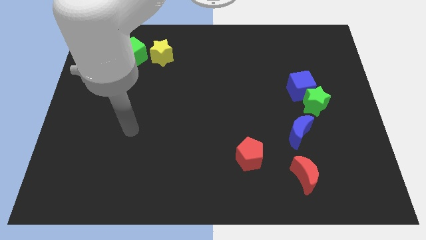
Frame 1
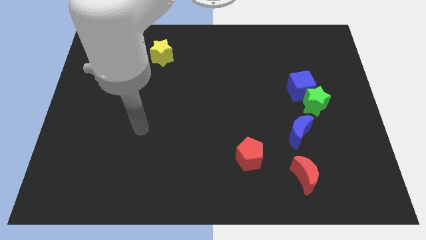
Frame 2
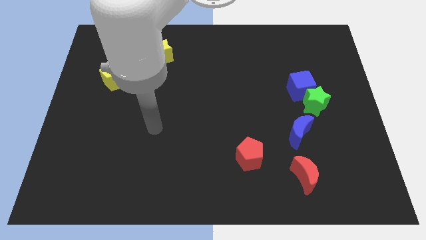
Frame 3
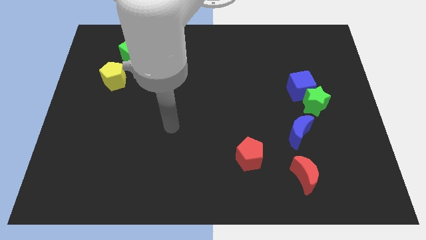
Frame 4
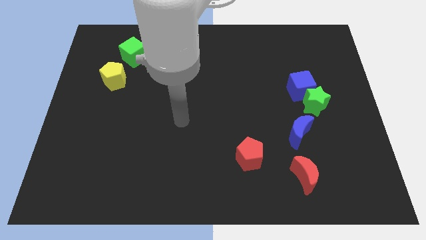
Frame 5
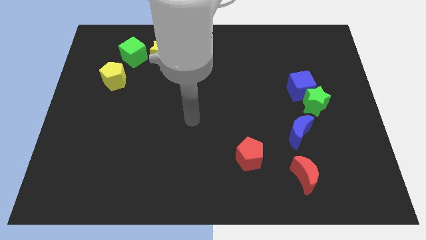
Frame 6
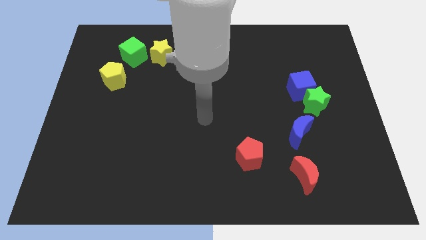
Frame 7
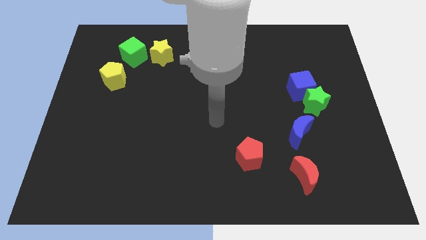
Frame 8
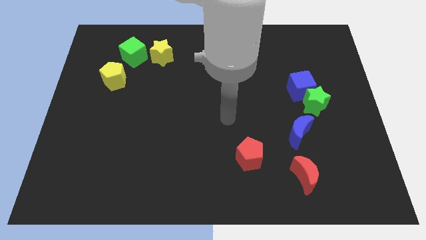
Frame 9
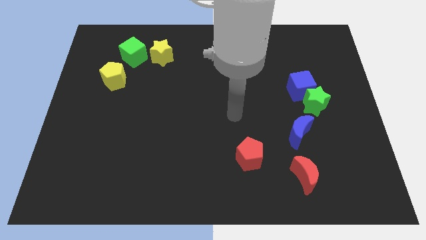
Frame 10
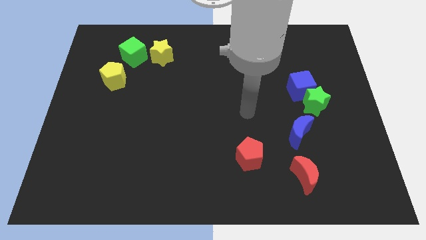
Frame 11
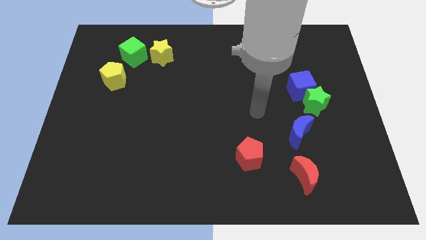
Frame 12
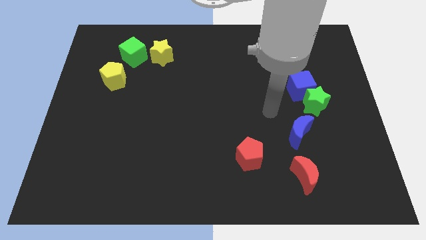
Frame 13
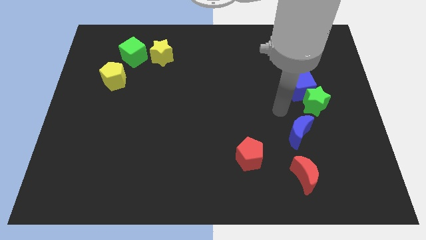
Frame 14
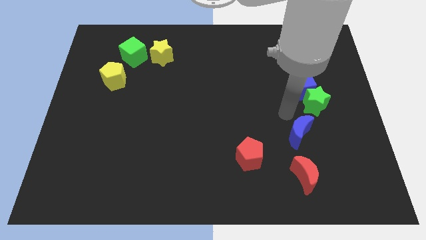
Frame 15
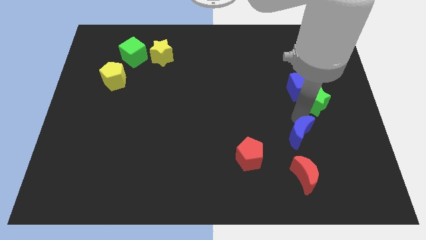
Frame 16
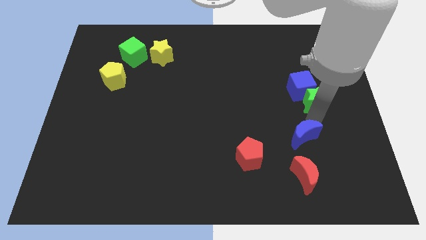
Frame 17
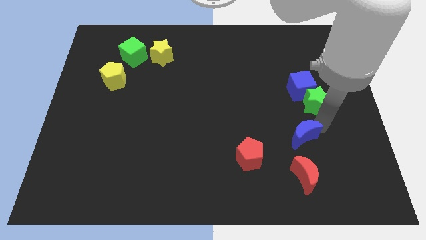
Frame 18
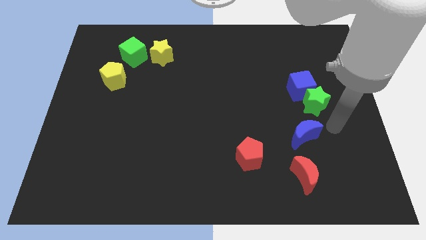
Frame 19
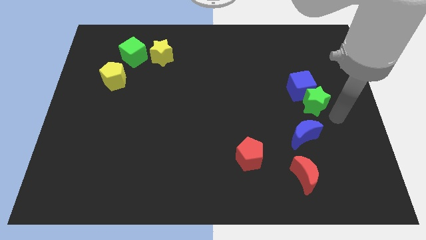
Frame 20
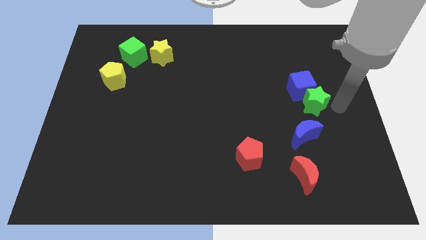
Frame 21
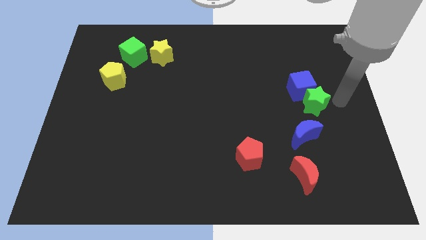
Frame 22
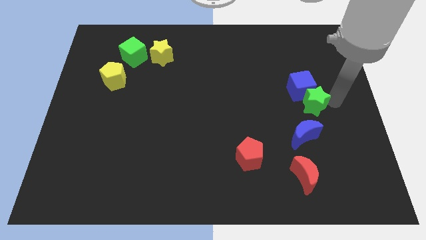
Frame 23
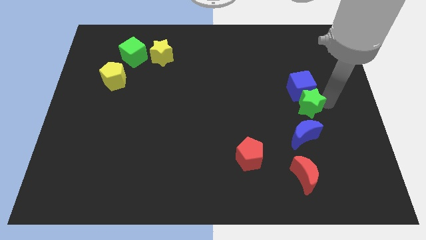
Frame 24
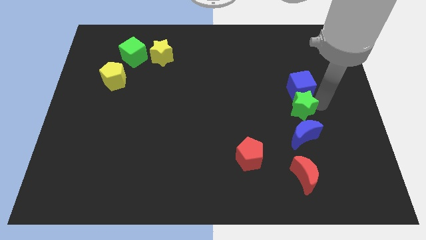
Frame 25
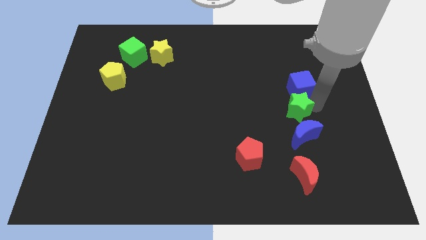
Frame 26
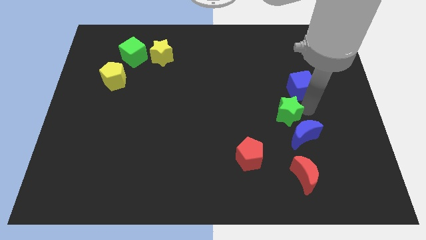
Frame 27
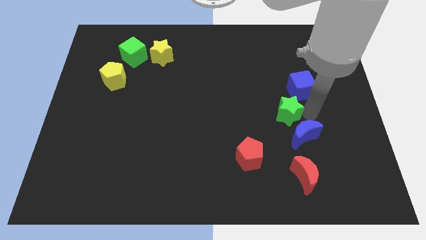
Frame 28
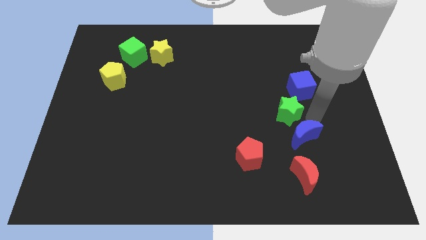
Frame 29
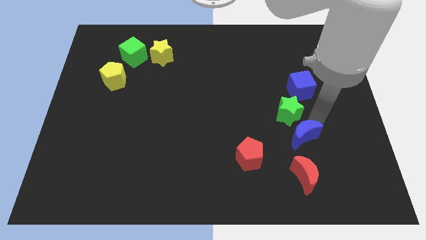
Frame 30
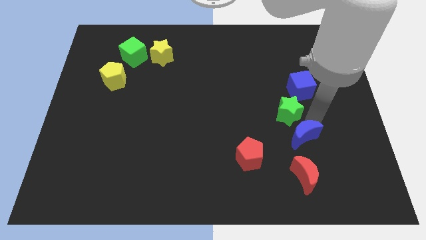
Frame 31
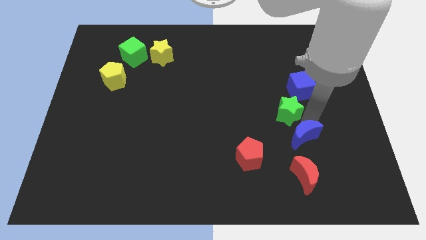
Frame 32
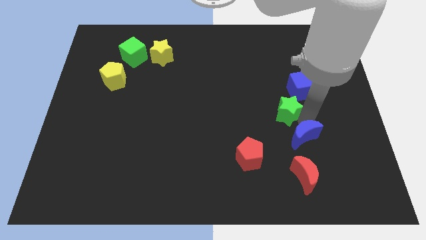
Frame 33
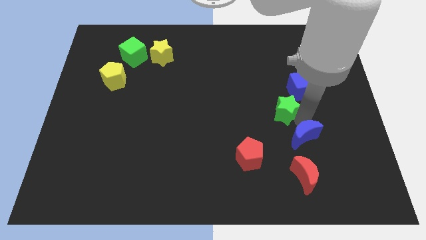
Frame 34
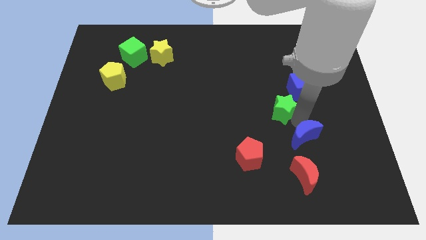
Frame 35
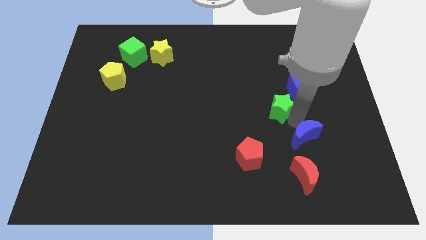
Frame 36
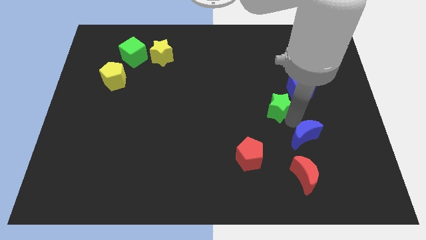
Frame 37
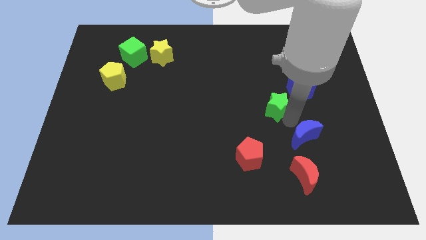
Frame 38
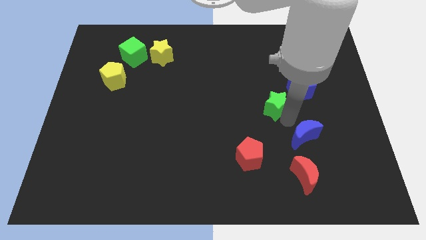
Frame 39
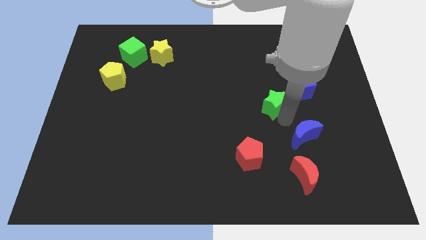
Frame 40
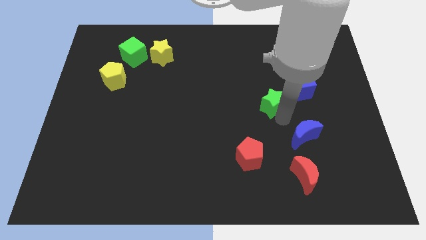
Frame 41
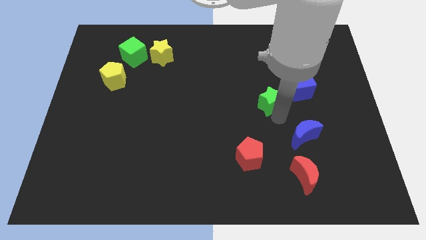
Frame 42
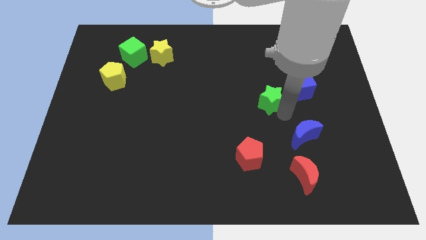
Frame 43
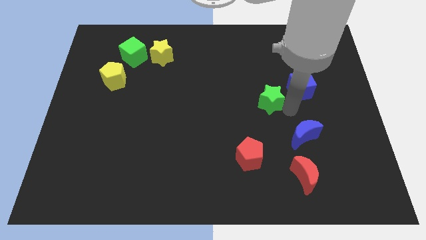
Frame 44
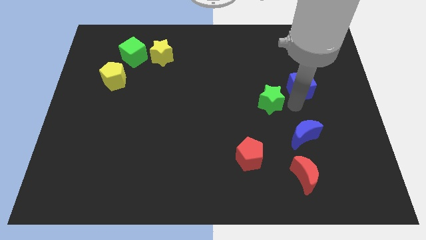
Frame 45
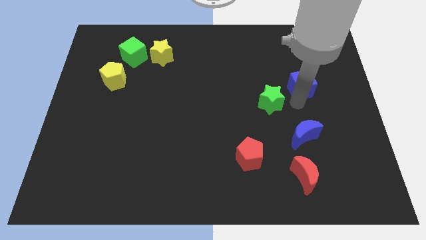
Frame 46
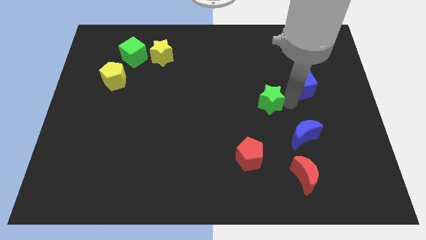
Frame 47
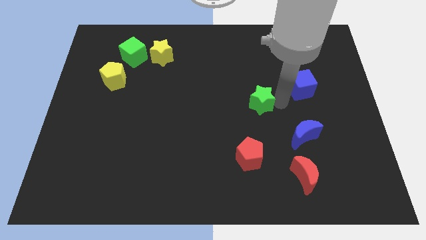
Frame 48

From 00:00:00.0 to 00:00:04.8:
put the green star to the middle of the board

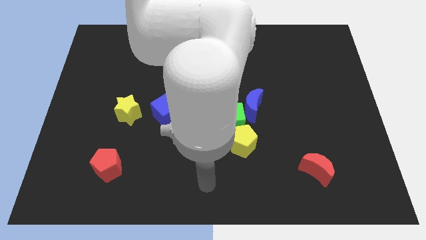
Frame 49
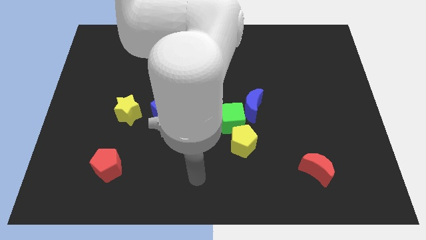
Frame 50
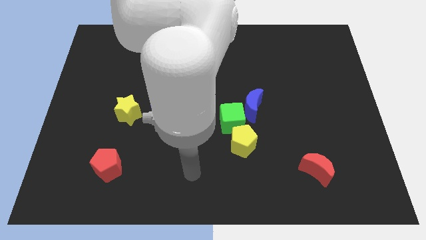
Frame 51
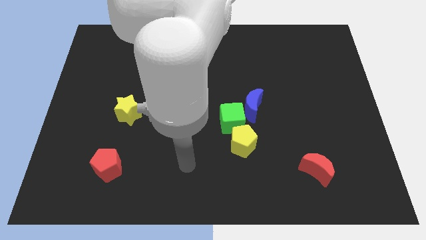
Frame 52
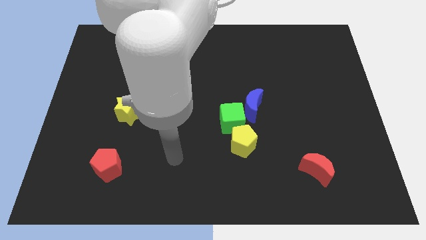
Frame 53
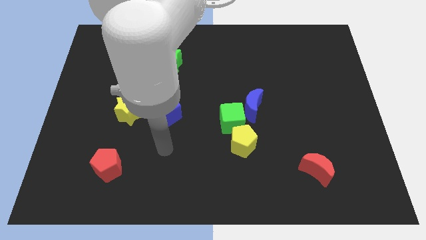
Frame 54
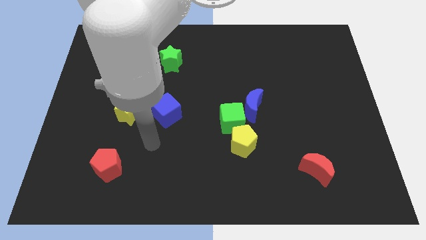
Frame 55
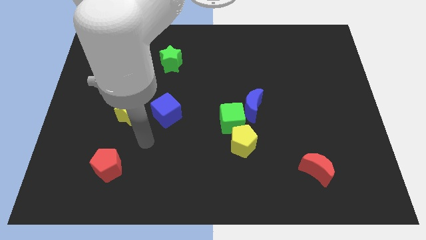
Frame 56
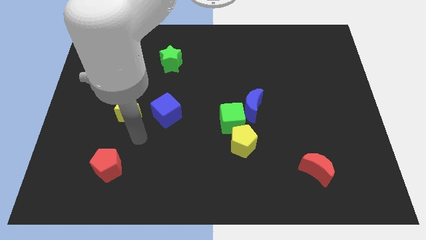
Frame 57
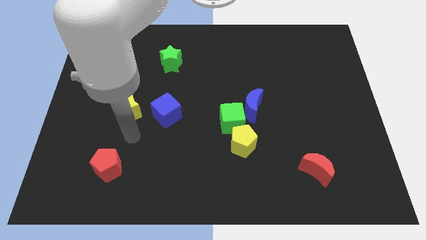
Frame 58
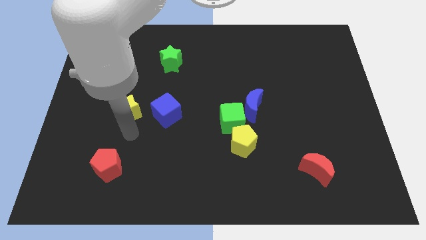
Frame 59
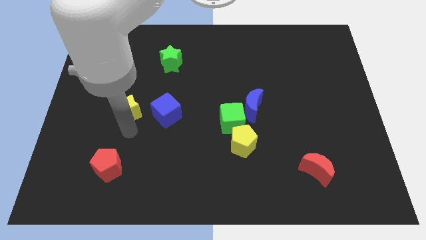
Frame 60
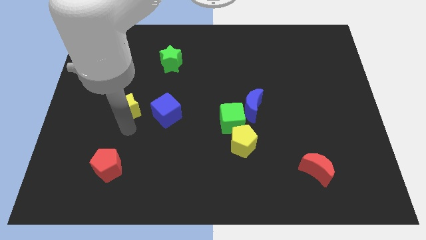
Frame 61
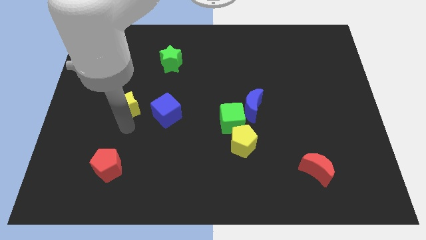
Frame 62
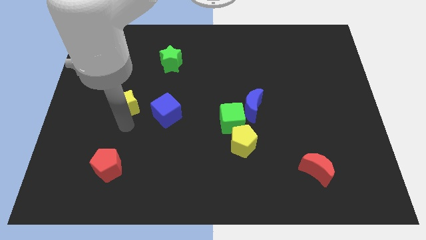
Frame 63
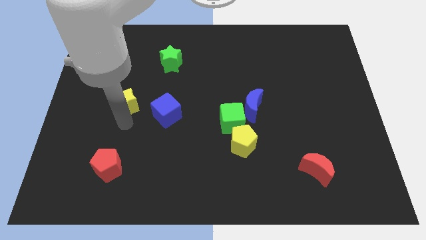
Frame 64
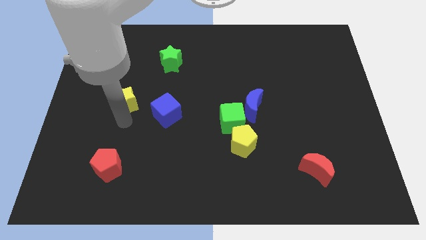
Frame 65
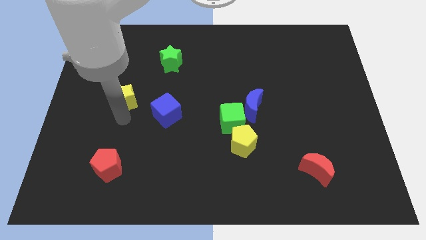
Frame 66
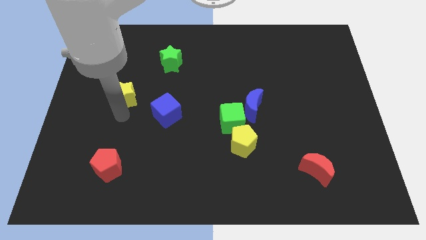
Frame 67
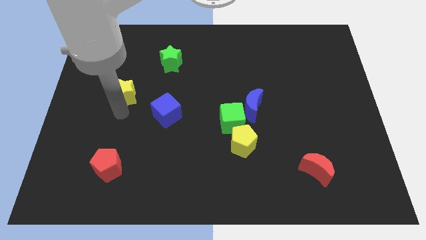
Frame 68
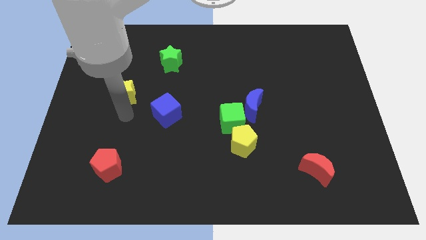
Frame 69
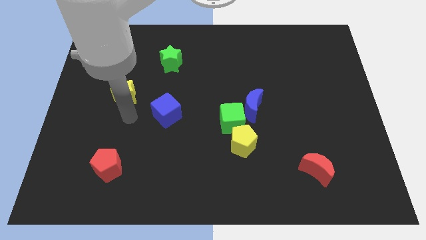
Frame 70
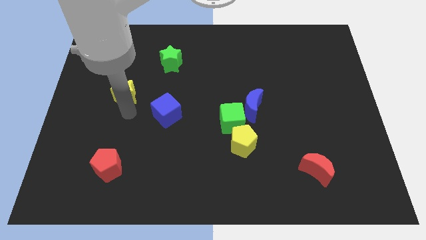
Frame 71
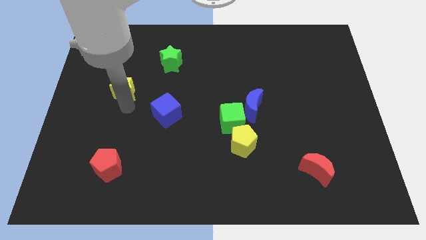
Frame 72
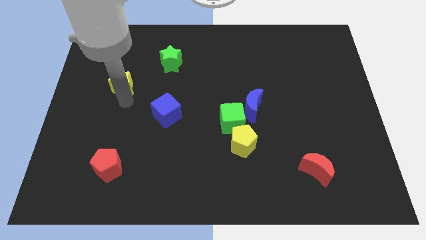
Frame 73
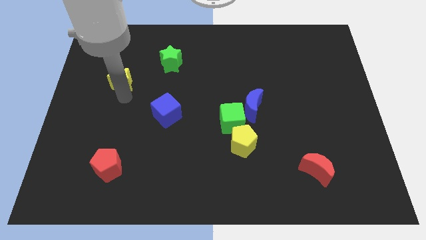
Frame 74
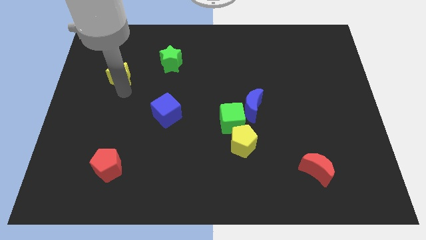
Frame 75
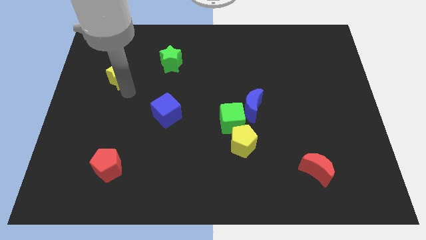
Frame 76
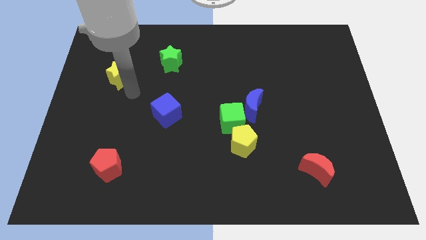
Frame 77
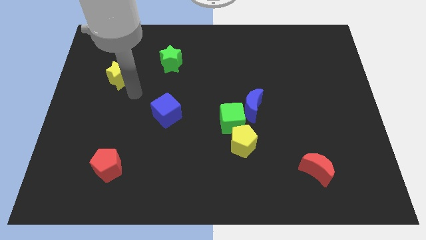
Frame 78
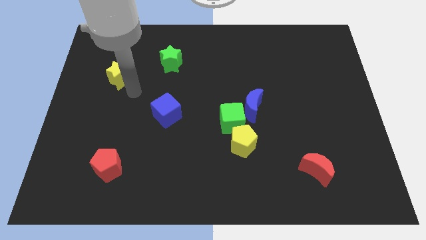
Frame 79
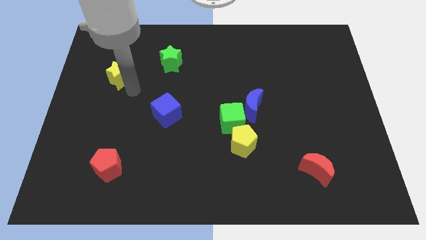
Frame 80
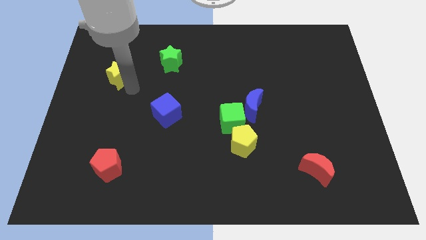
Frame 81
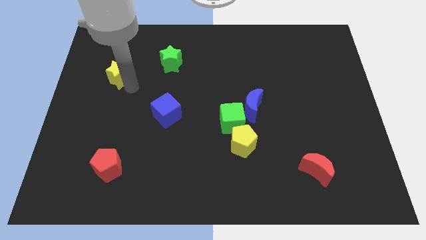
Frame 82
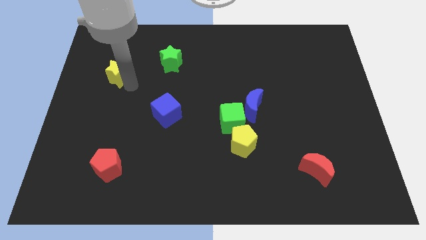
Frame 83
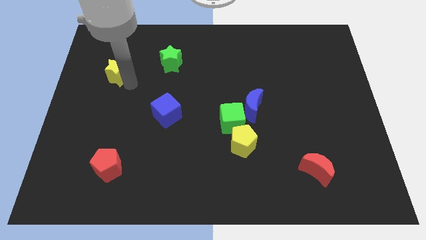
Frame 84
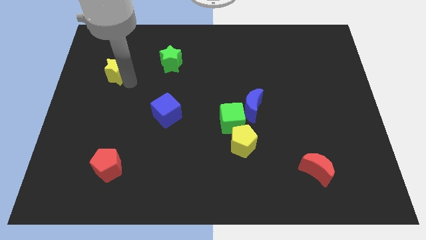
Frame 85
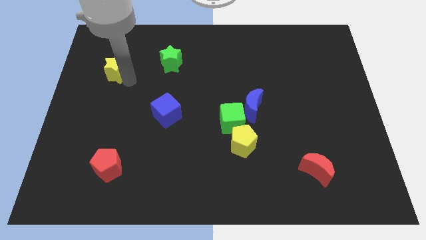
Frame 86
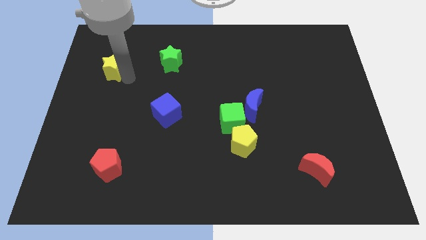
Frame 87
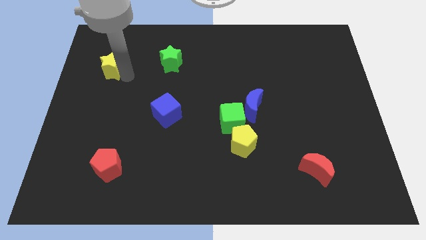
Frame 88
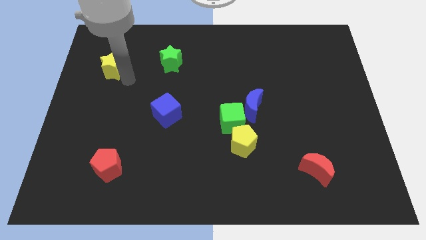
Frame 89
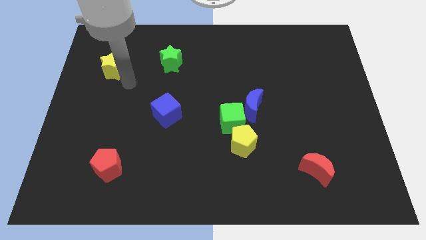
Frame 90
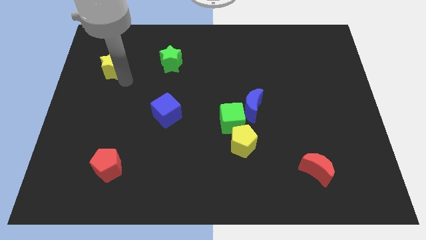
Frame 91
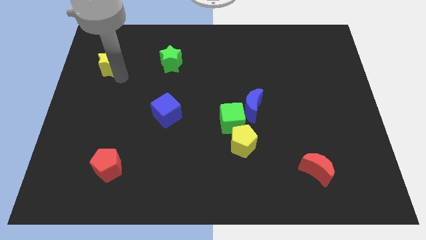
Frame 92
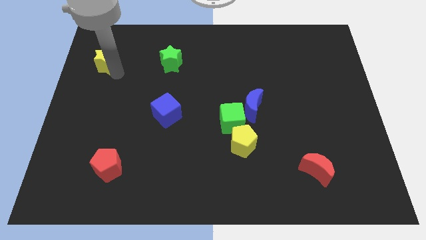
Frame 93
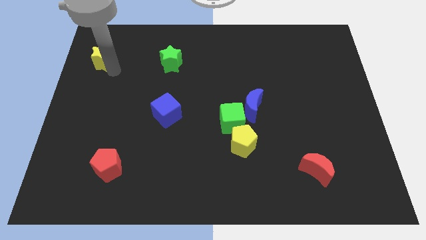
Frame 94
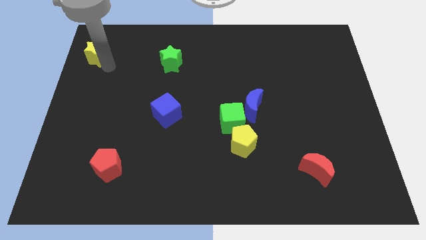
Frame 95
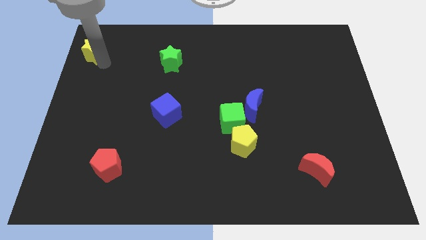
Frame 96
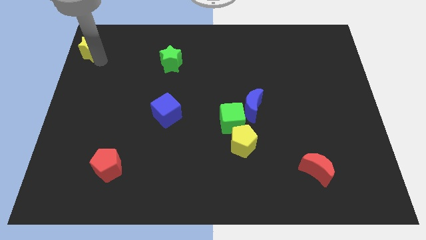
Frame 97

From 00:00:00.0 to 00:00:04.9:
put the yellow star to the top left corner
